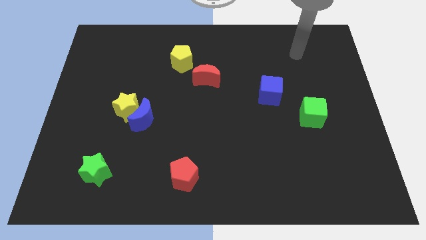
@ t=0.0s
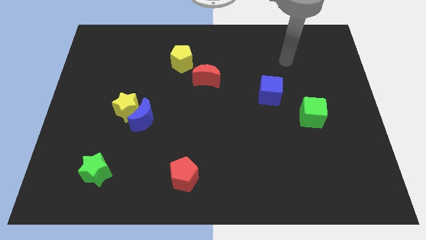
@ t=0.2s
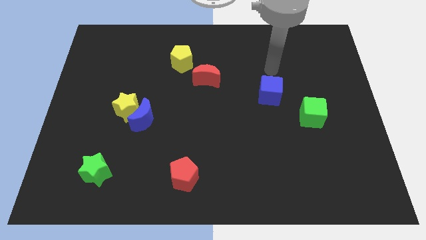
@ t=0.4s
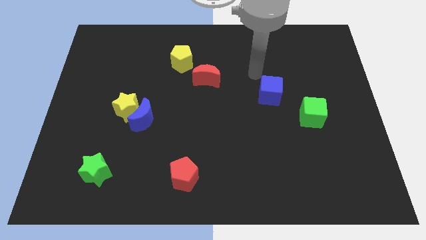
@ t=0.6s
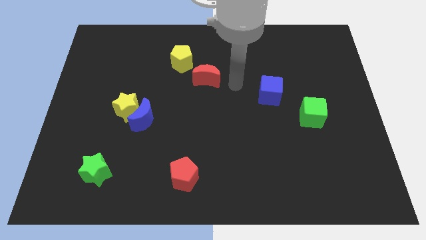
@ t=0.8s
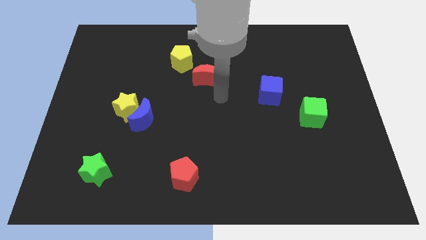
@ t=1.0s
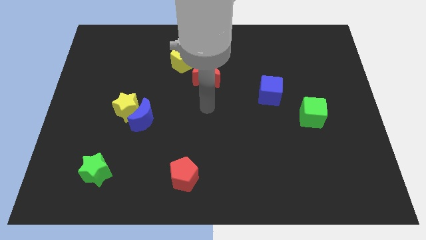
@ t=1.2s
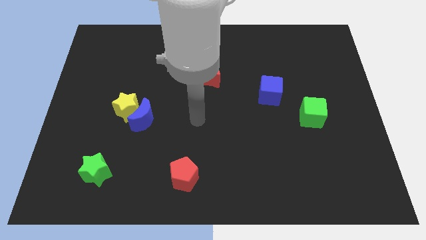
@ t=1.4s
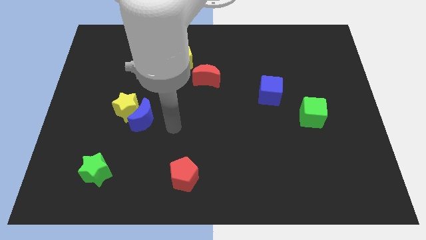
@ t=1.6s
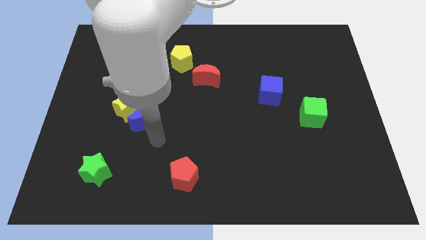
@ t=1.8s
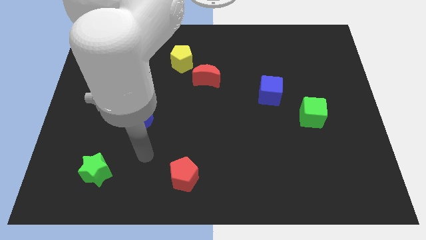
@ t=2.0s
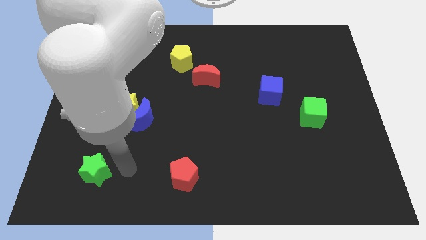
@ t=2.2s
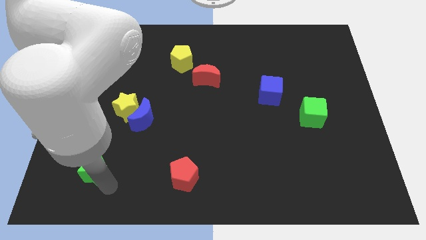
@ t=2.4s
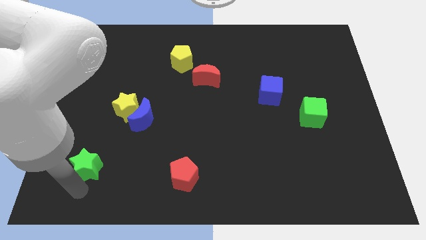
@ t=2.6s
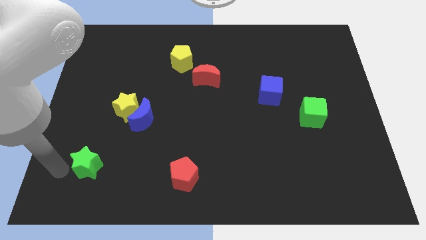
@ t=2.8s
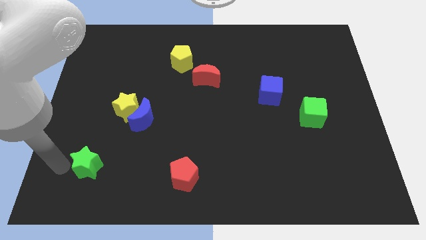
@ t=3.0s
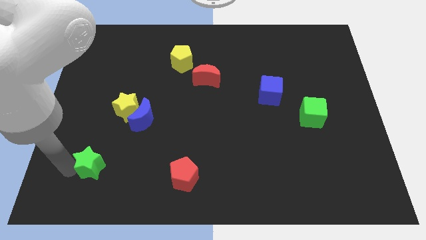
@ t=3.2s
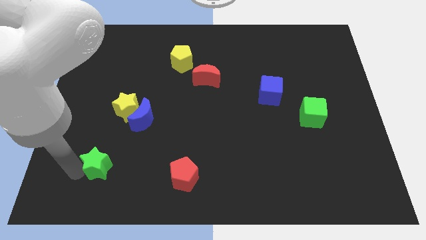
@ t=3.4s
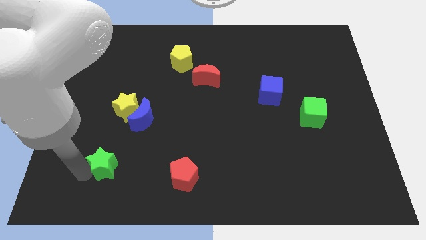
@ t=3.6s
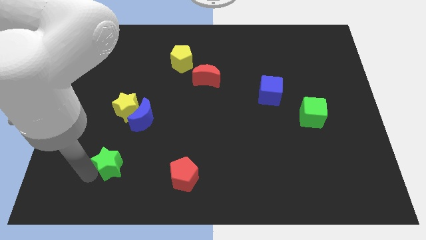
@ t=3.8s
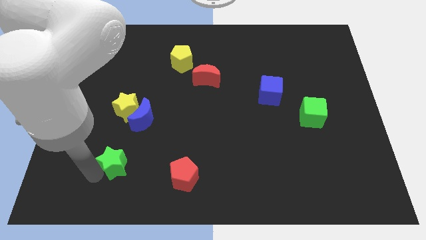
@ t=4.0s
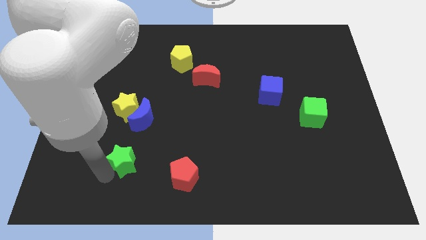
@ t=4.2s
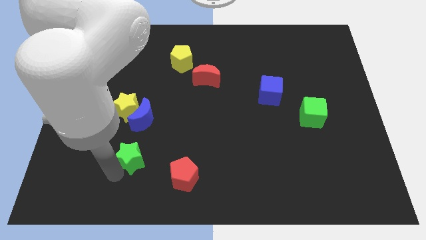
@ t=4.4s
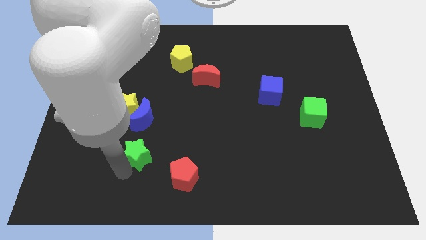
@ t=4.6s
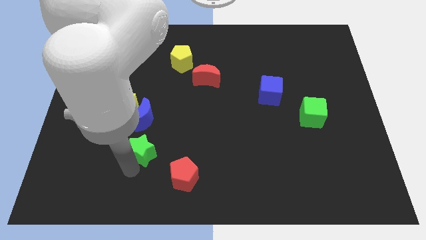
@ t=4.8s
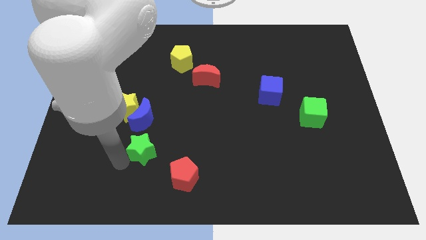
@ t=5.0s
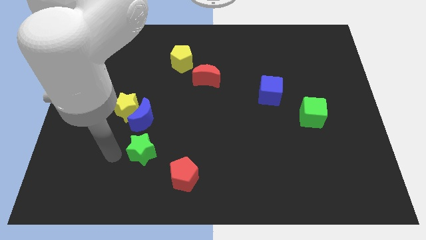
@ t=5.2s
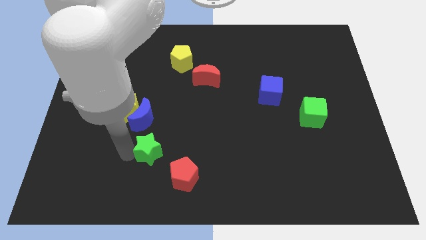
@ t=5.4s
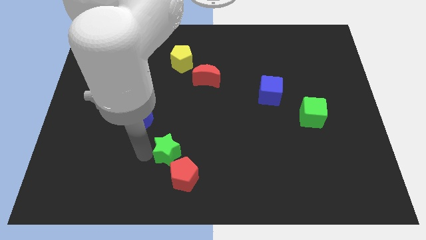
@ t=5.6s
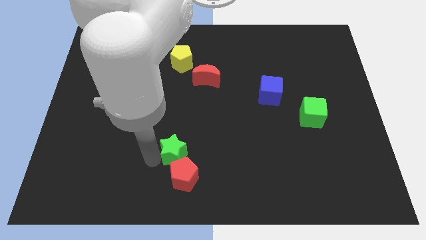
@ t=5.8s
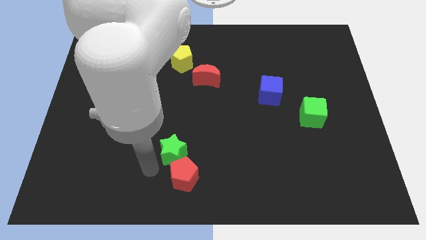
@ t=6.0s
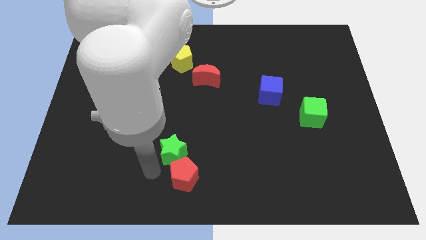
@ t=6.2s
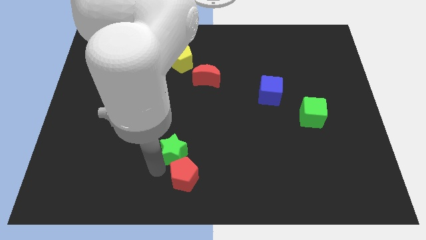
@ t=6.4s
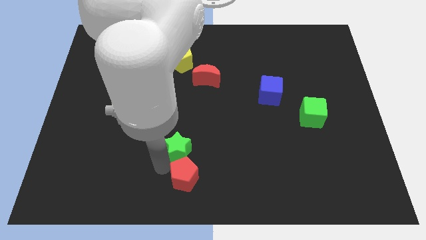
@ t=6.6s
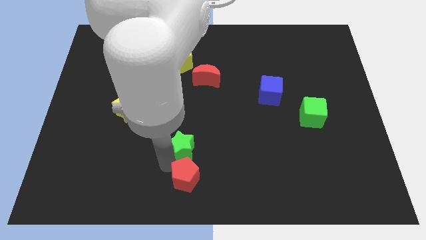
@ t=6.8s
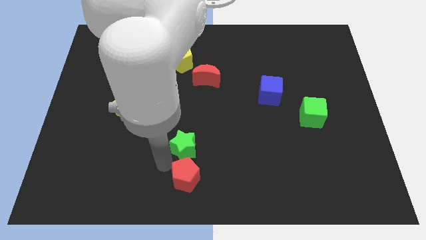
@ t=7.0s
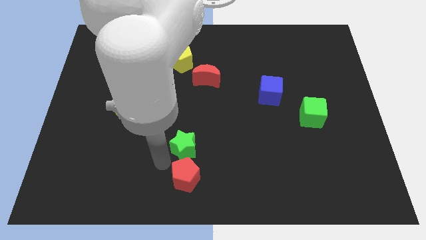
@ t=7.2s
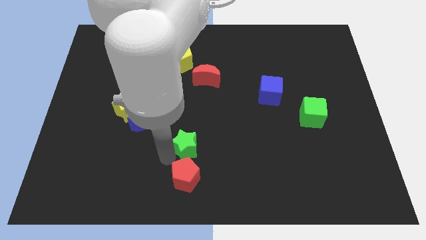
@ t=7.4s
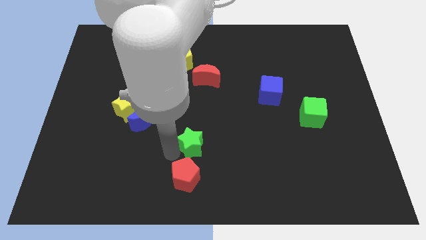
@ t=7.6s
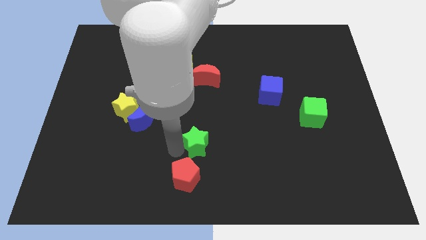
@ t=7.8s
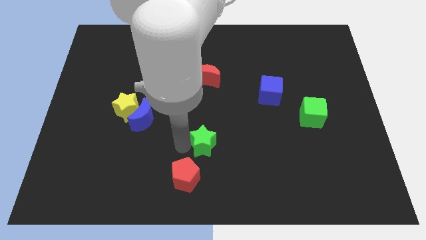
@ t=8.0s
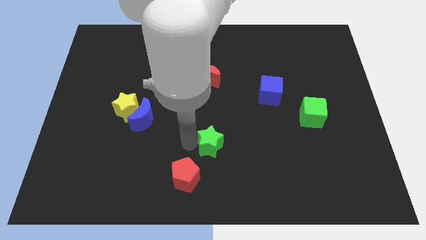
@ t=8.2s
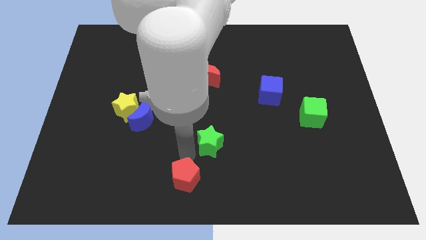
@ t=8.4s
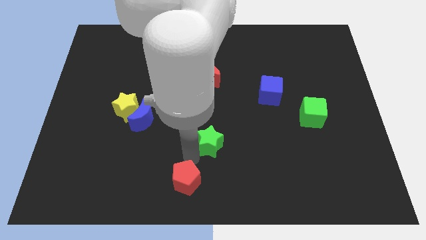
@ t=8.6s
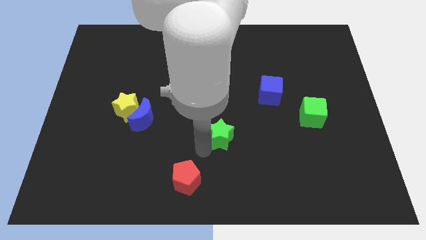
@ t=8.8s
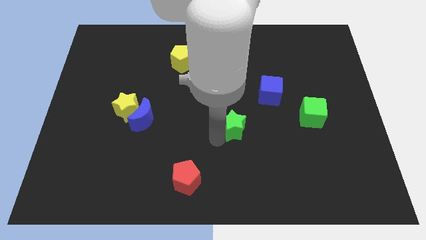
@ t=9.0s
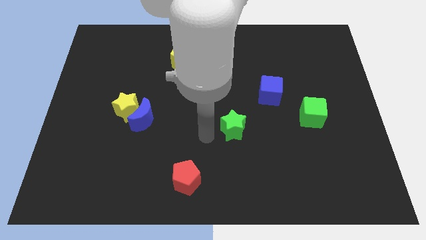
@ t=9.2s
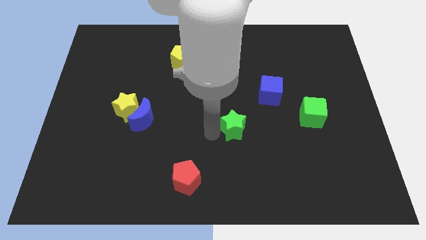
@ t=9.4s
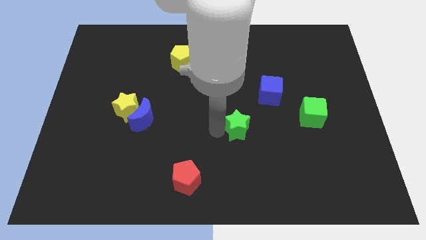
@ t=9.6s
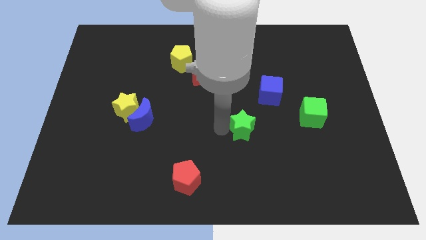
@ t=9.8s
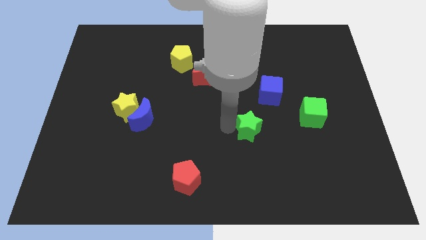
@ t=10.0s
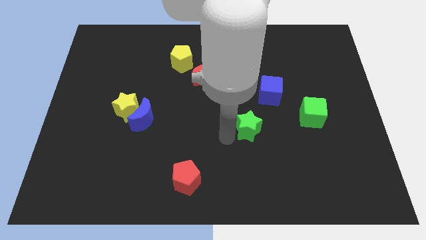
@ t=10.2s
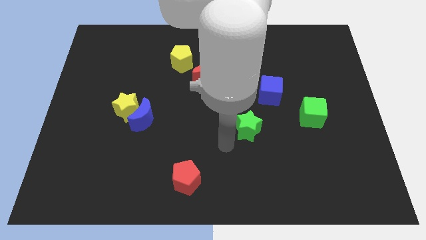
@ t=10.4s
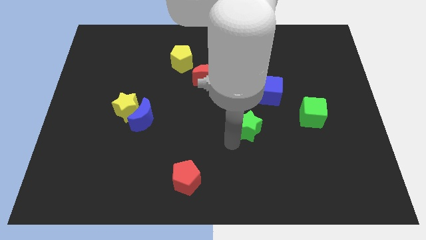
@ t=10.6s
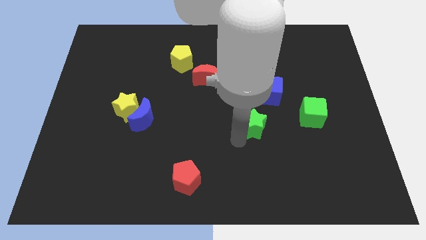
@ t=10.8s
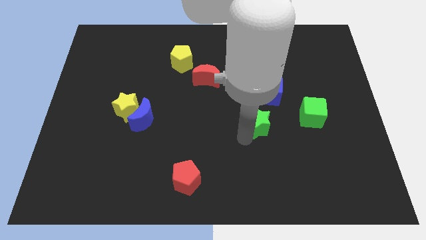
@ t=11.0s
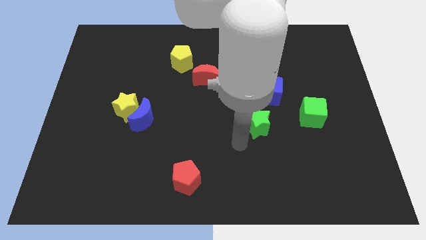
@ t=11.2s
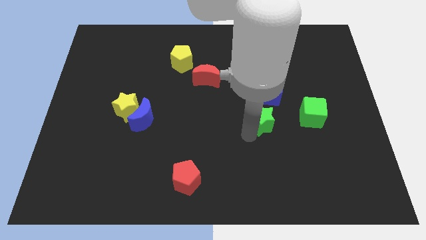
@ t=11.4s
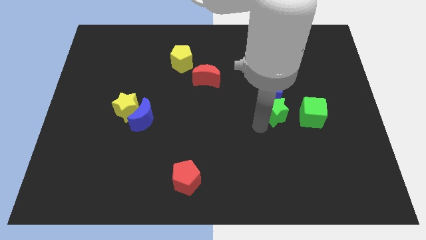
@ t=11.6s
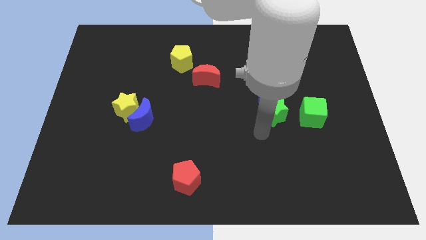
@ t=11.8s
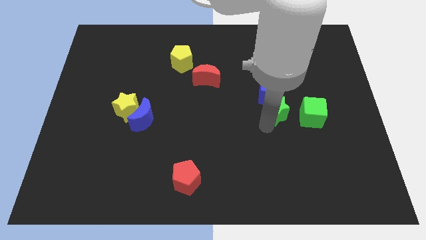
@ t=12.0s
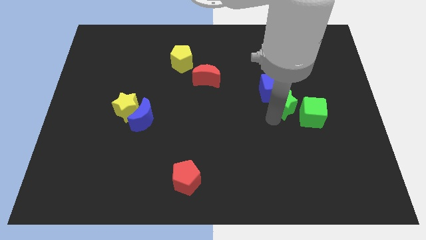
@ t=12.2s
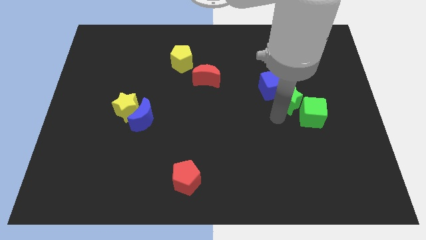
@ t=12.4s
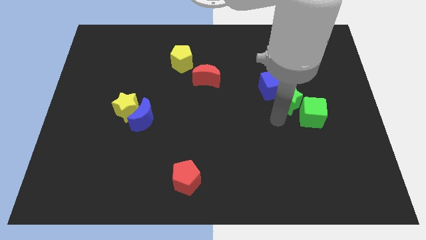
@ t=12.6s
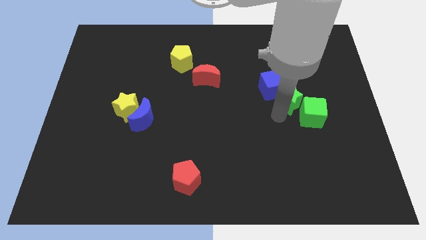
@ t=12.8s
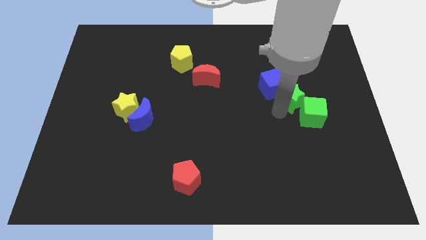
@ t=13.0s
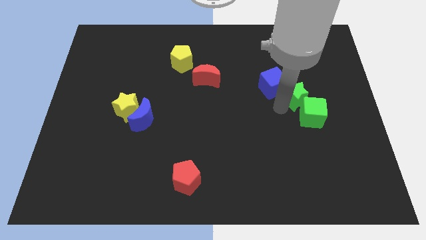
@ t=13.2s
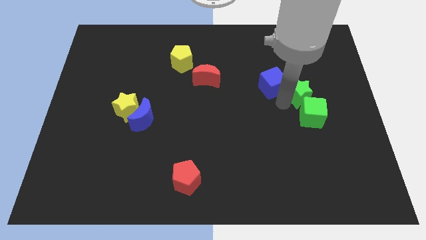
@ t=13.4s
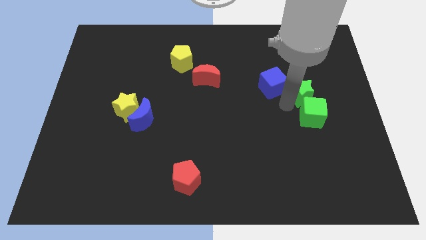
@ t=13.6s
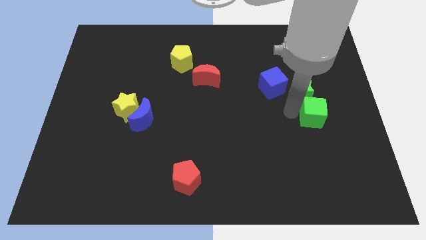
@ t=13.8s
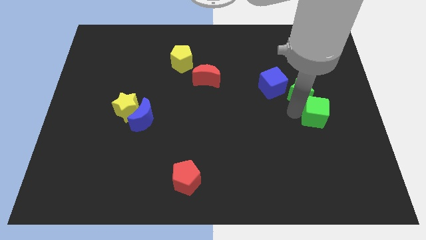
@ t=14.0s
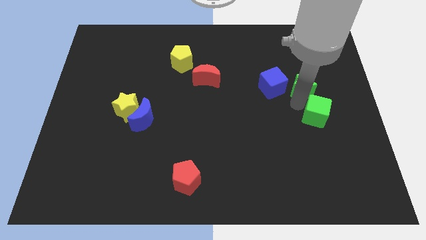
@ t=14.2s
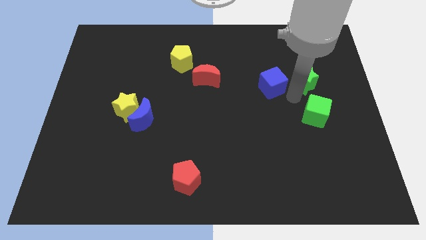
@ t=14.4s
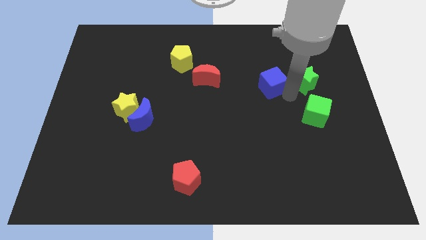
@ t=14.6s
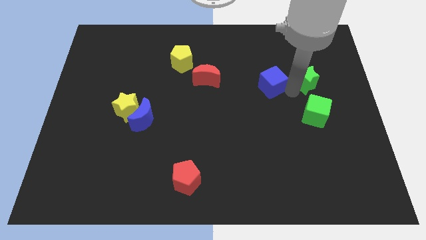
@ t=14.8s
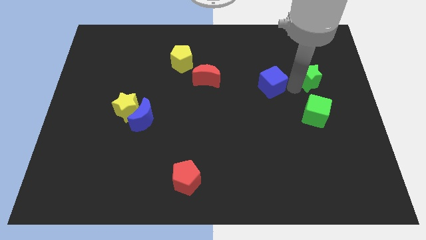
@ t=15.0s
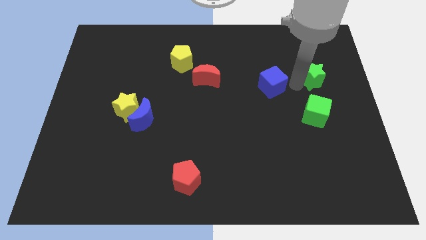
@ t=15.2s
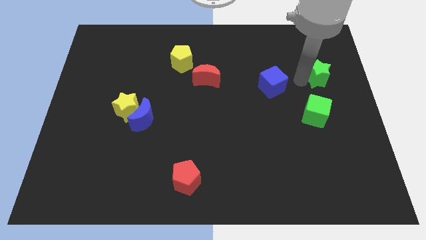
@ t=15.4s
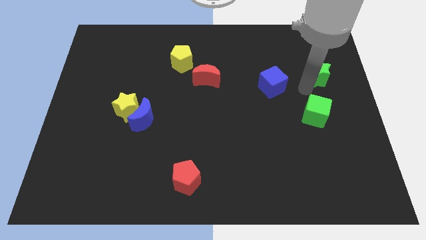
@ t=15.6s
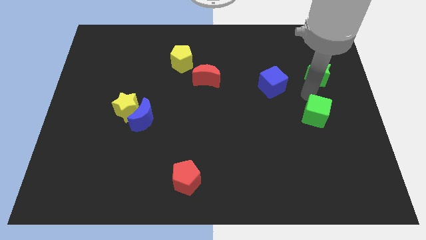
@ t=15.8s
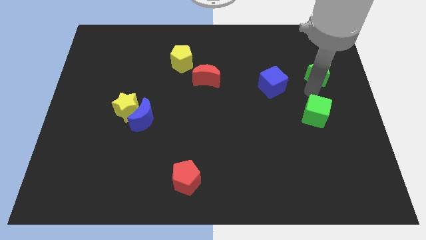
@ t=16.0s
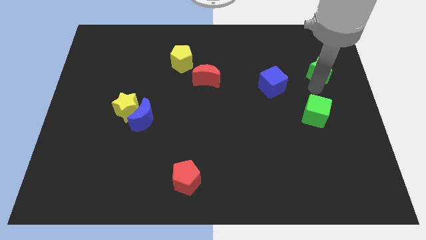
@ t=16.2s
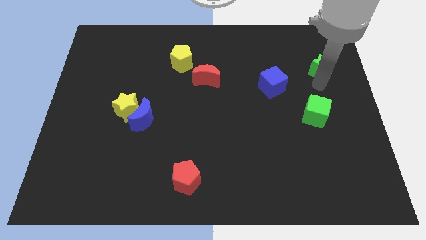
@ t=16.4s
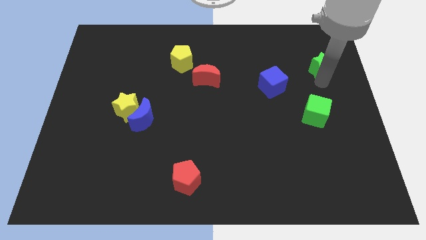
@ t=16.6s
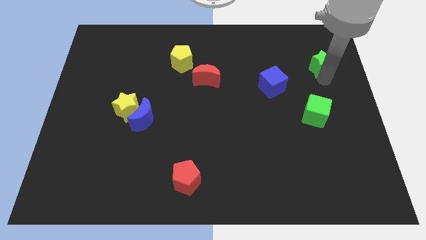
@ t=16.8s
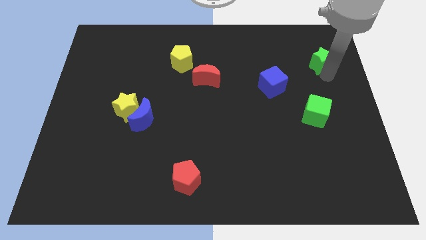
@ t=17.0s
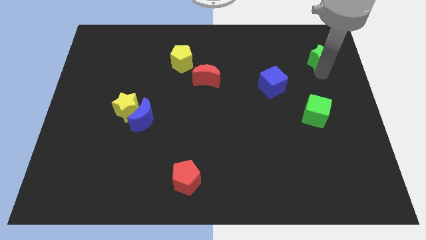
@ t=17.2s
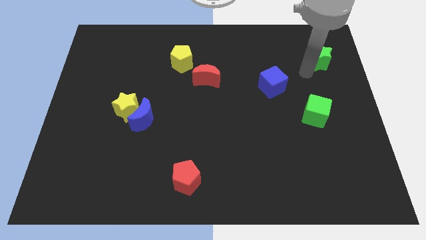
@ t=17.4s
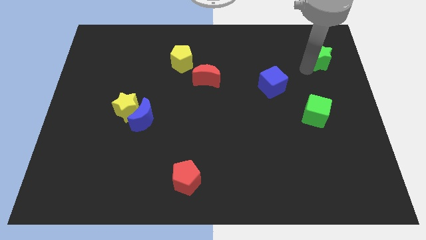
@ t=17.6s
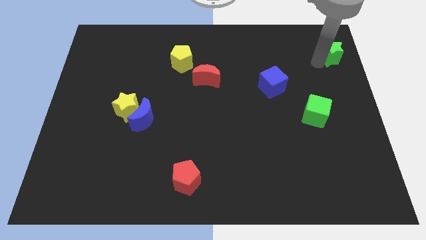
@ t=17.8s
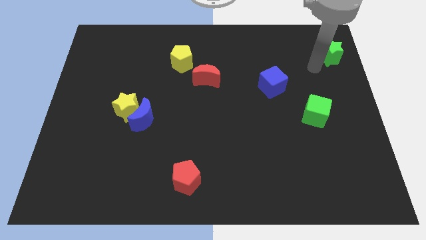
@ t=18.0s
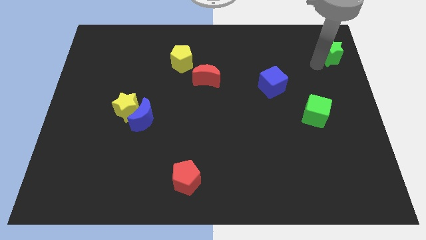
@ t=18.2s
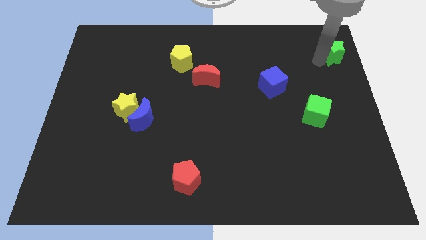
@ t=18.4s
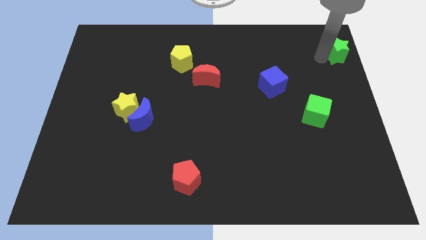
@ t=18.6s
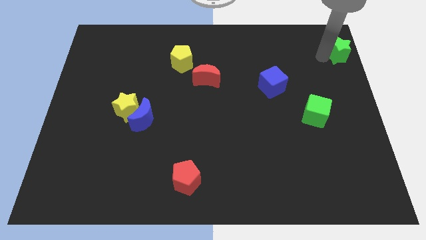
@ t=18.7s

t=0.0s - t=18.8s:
push the green star to the top right
